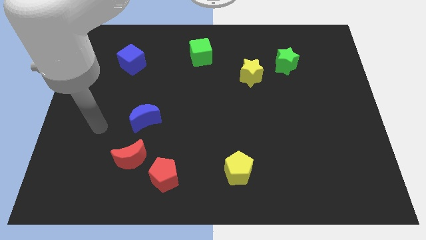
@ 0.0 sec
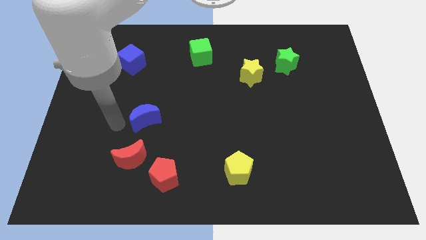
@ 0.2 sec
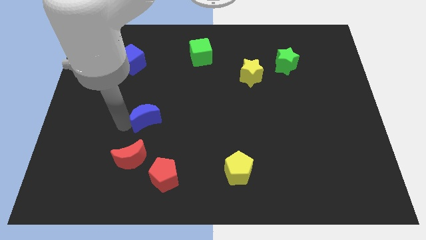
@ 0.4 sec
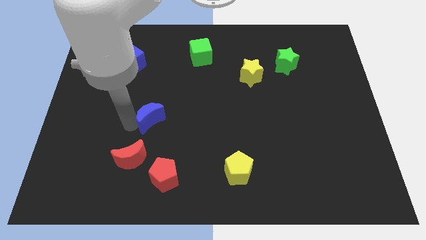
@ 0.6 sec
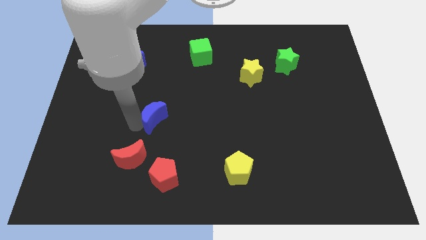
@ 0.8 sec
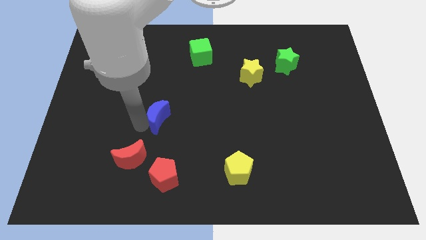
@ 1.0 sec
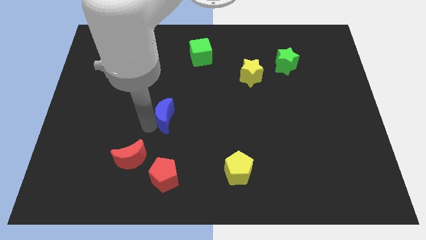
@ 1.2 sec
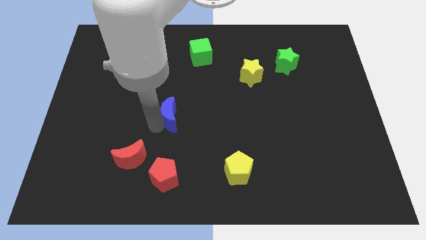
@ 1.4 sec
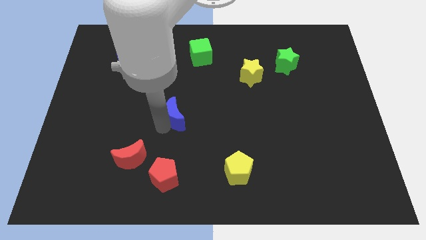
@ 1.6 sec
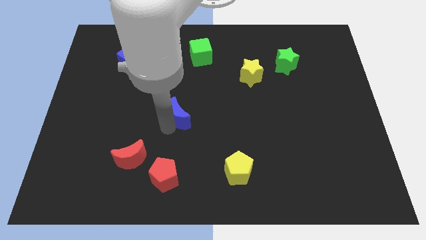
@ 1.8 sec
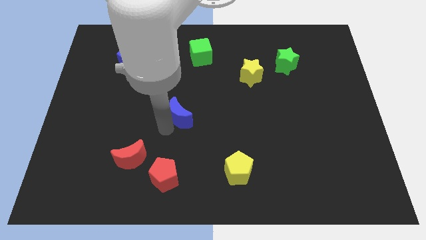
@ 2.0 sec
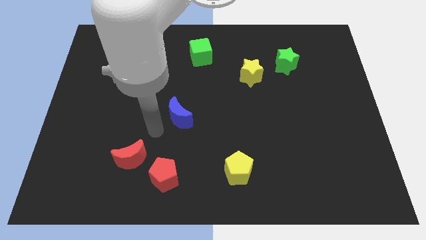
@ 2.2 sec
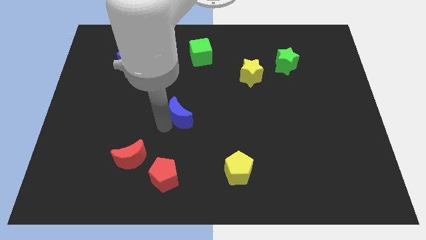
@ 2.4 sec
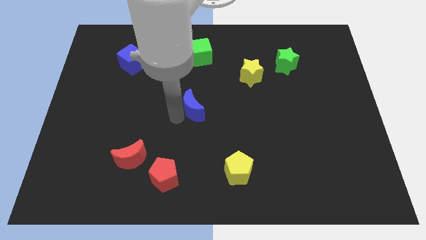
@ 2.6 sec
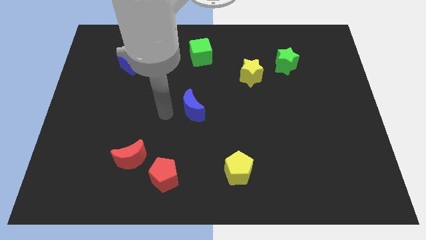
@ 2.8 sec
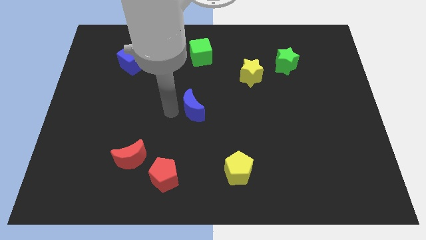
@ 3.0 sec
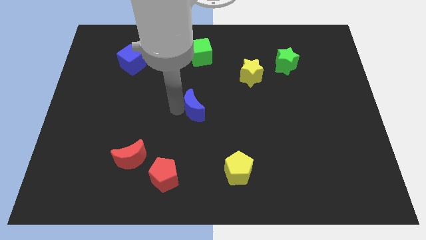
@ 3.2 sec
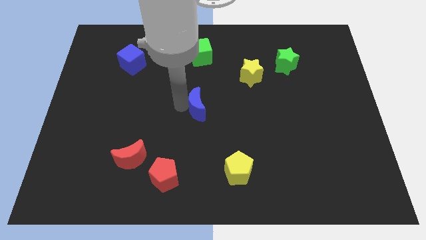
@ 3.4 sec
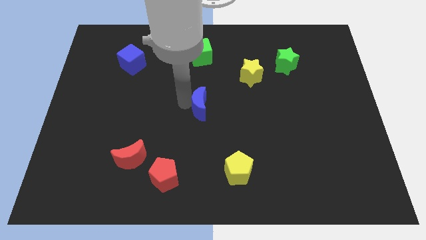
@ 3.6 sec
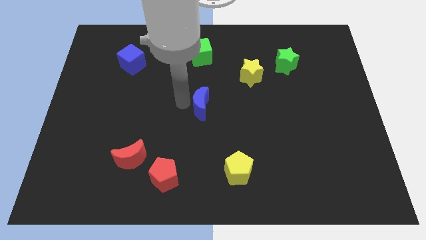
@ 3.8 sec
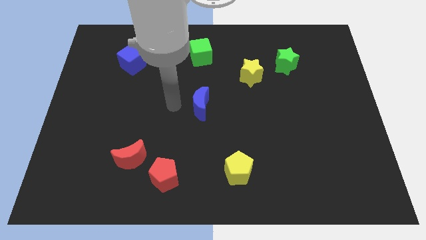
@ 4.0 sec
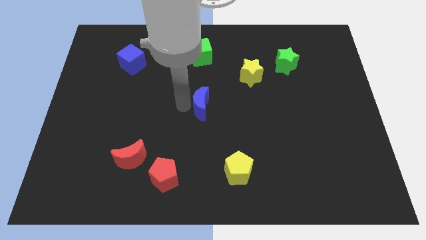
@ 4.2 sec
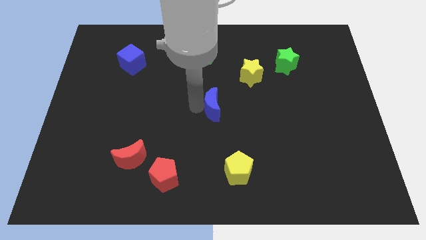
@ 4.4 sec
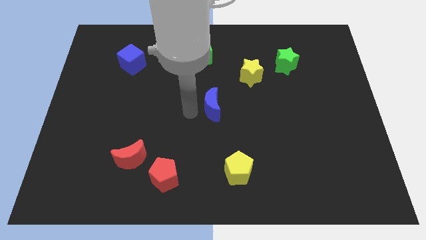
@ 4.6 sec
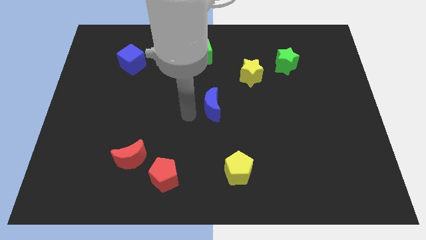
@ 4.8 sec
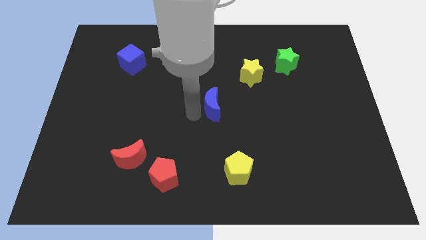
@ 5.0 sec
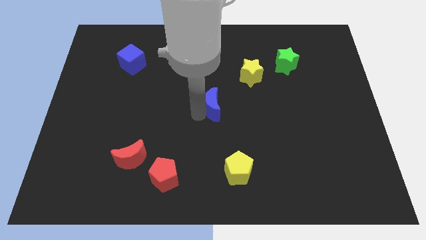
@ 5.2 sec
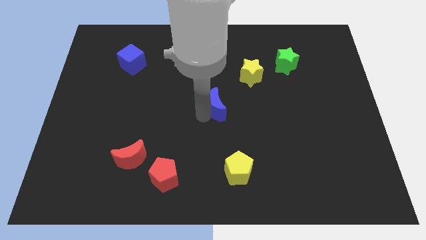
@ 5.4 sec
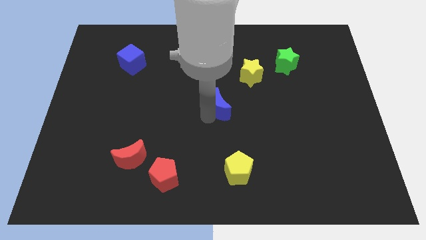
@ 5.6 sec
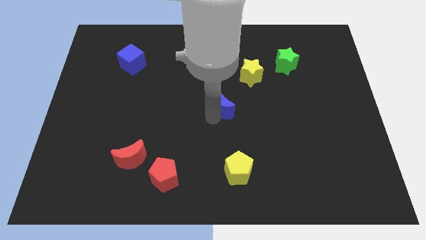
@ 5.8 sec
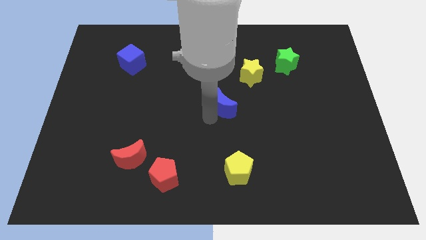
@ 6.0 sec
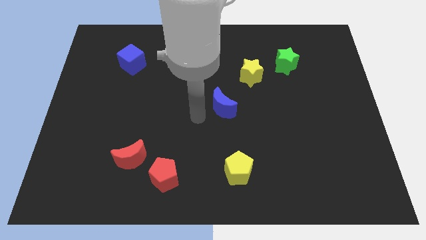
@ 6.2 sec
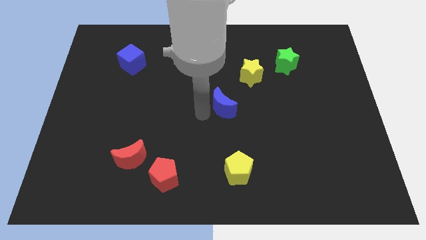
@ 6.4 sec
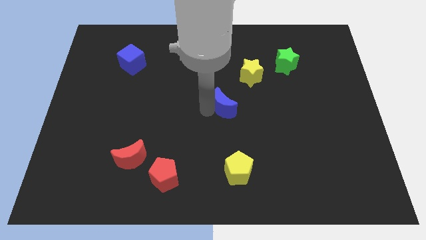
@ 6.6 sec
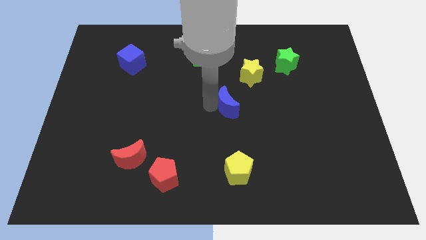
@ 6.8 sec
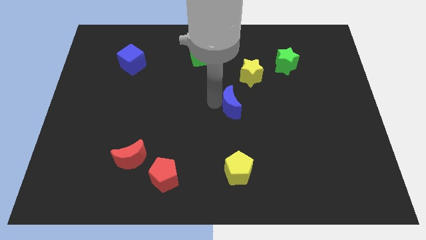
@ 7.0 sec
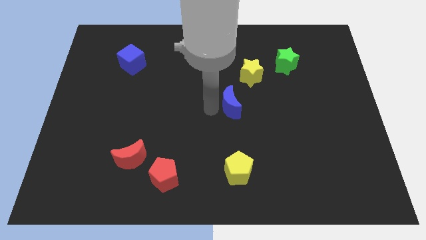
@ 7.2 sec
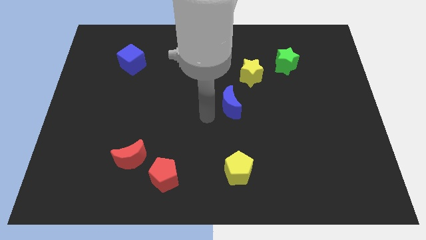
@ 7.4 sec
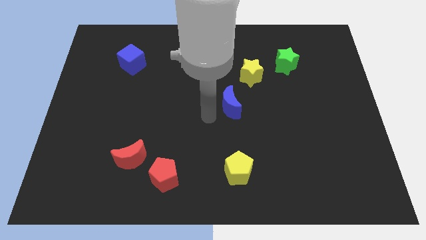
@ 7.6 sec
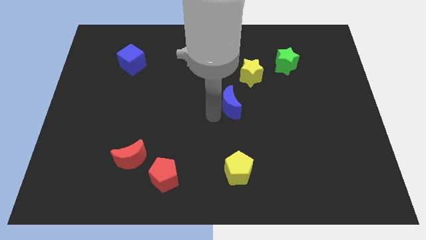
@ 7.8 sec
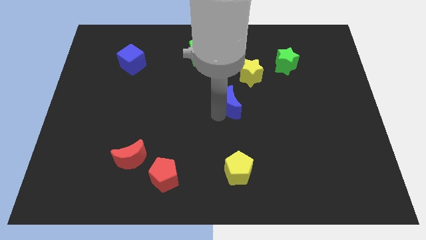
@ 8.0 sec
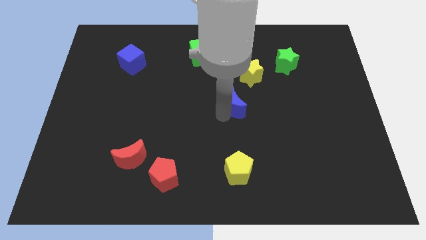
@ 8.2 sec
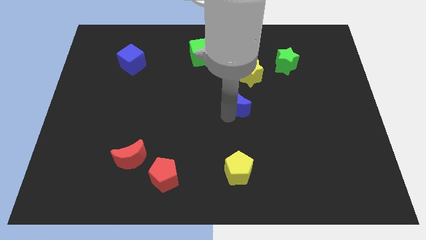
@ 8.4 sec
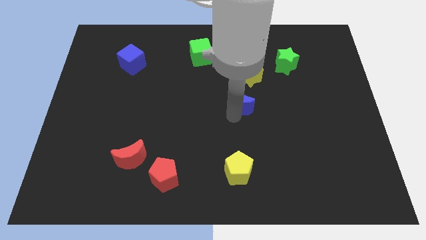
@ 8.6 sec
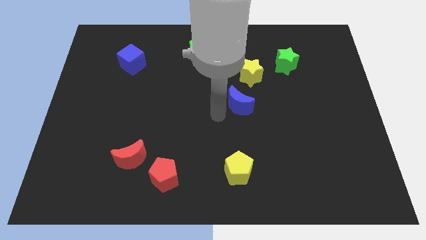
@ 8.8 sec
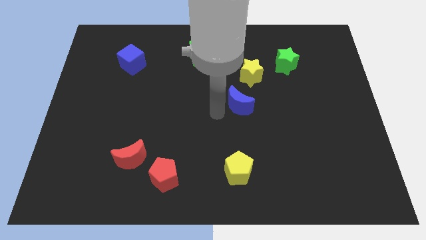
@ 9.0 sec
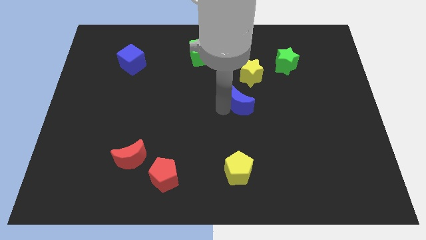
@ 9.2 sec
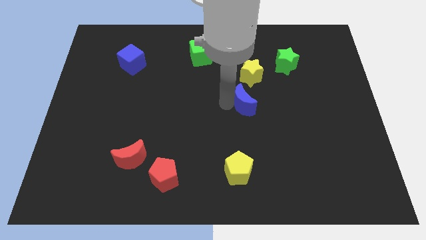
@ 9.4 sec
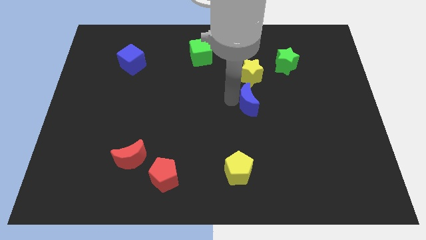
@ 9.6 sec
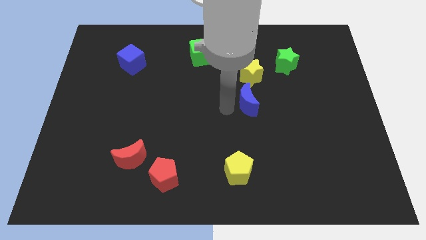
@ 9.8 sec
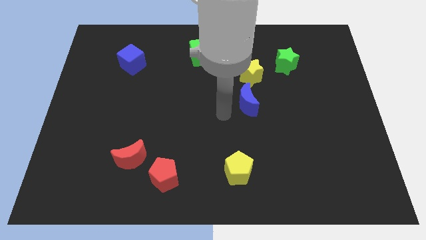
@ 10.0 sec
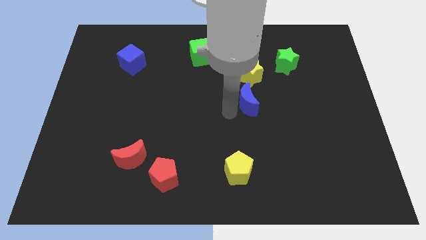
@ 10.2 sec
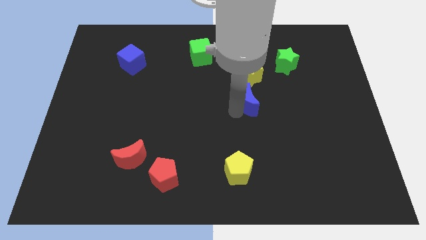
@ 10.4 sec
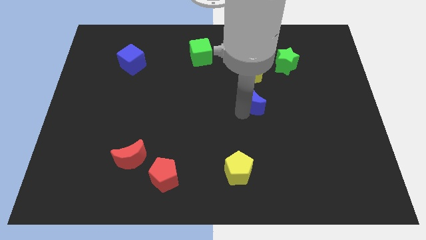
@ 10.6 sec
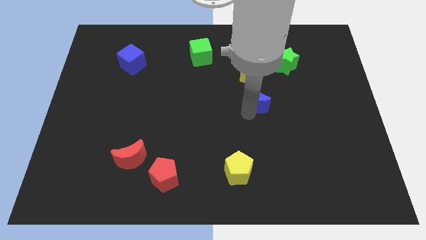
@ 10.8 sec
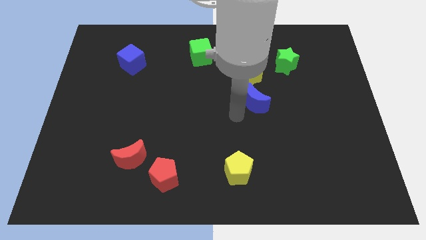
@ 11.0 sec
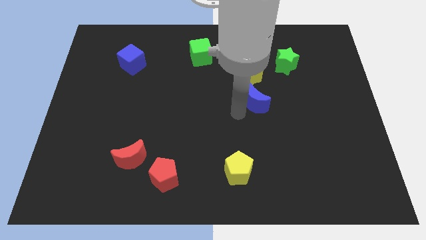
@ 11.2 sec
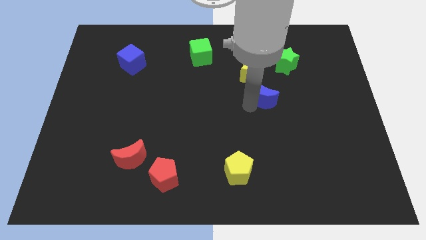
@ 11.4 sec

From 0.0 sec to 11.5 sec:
slide the blue moon diagonally down and to the right of the yellow star
